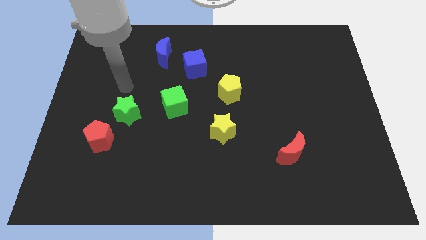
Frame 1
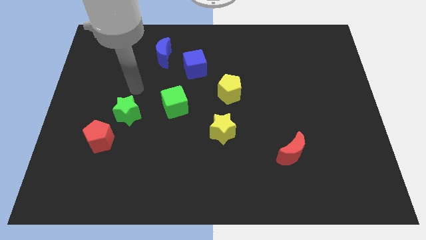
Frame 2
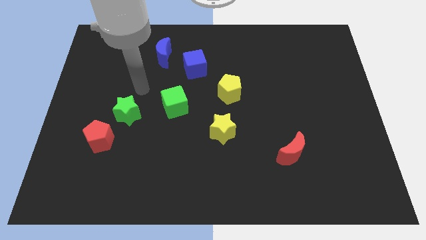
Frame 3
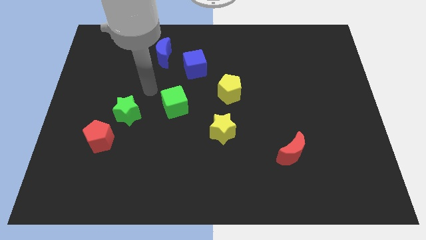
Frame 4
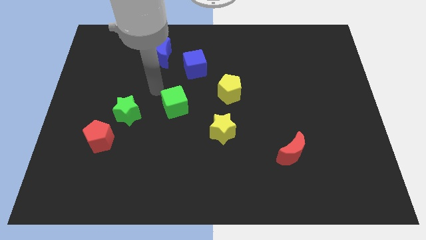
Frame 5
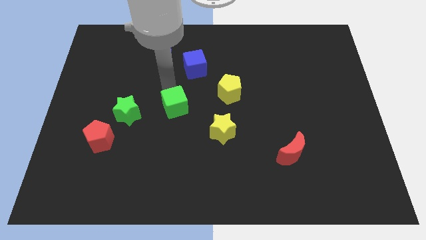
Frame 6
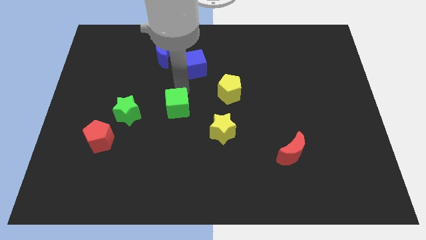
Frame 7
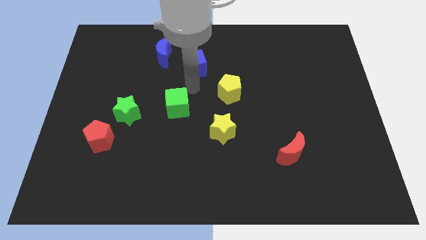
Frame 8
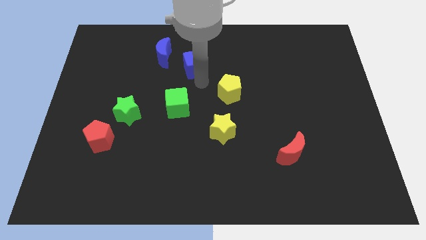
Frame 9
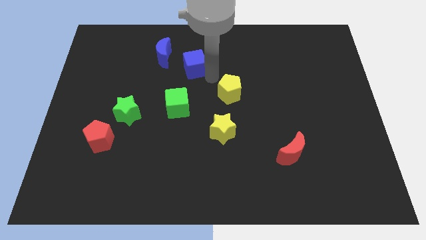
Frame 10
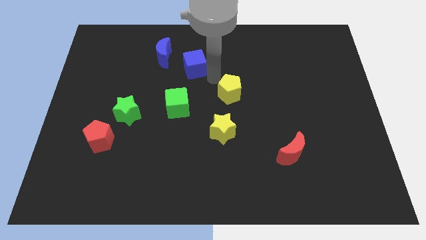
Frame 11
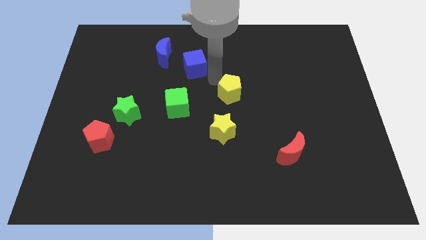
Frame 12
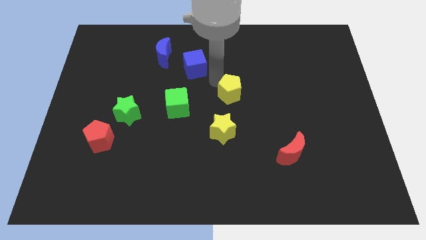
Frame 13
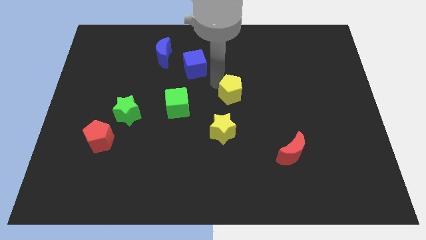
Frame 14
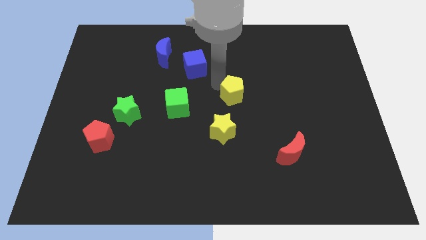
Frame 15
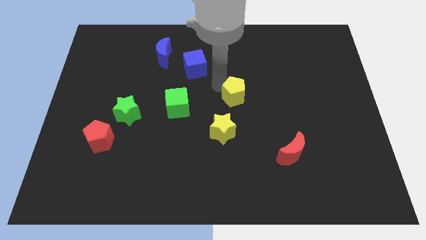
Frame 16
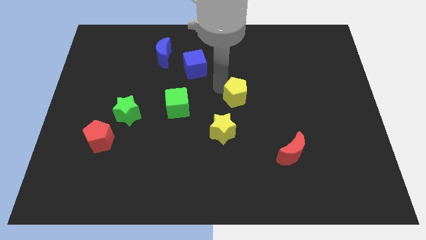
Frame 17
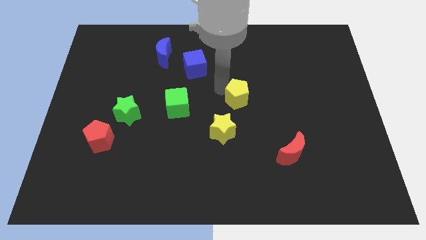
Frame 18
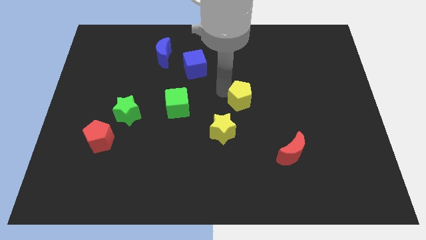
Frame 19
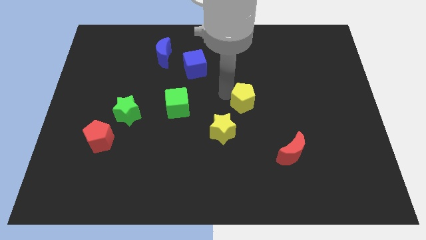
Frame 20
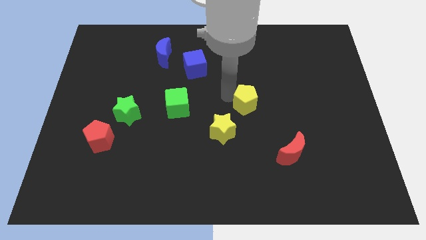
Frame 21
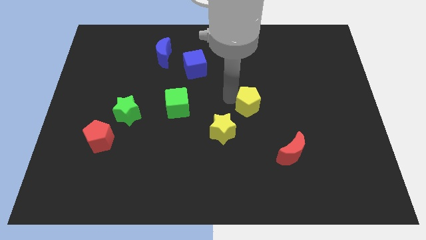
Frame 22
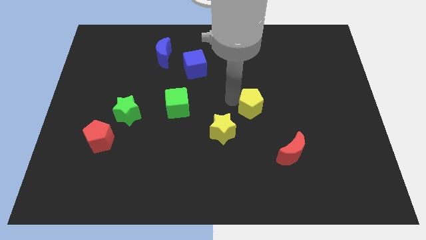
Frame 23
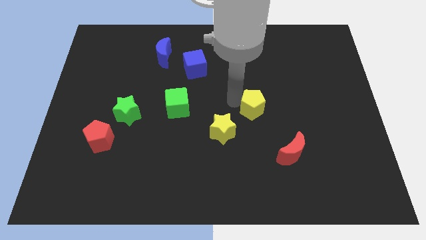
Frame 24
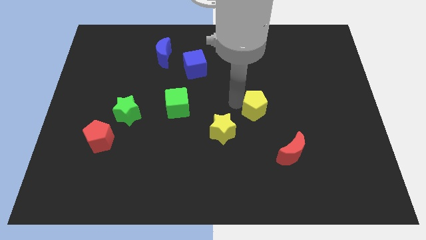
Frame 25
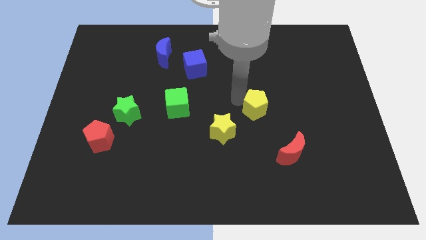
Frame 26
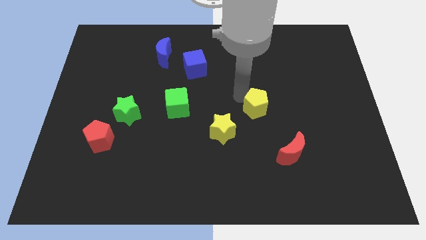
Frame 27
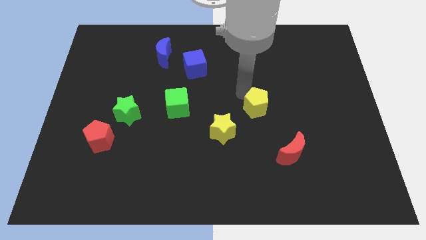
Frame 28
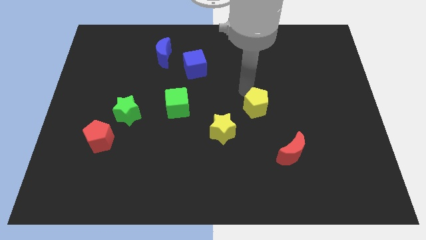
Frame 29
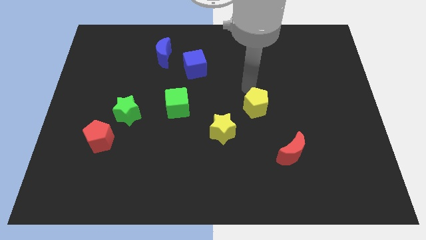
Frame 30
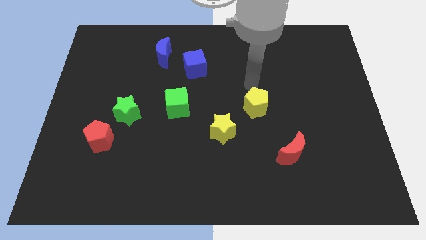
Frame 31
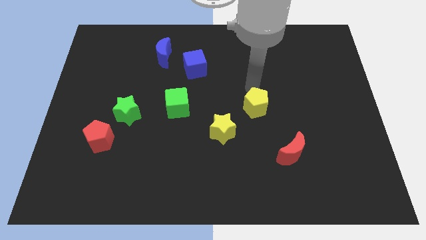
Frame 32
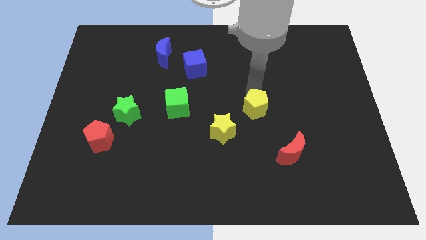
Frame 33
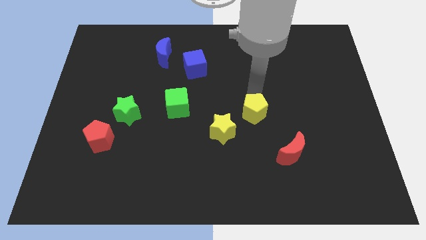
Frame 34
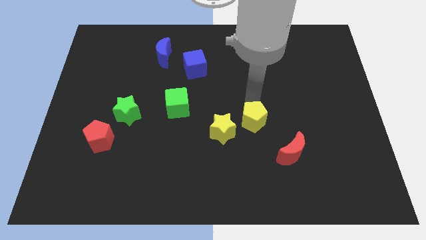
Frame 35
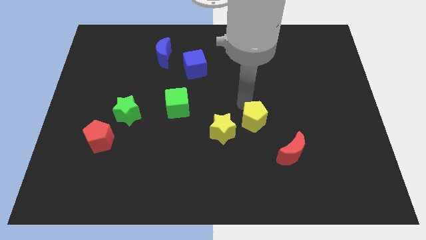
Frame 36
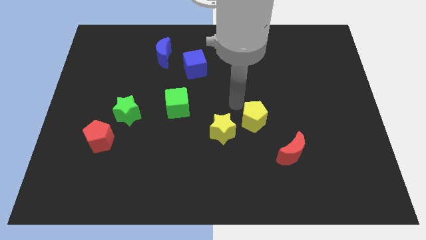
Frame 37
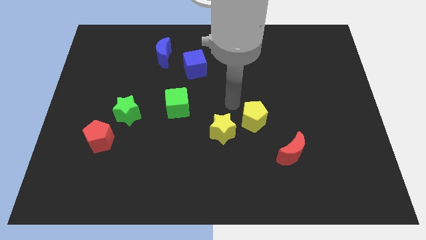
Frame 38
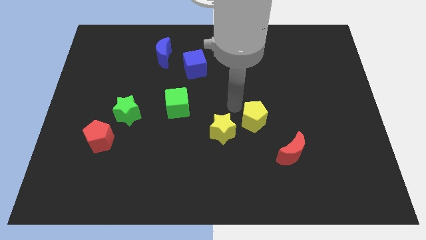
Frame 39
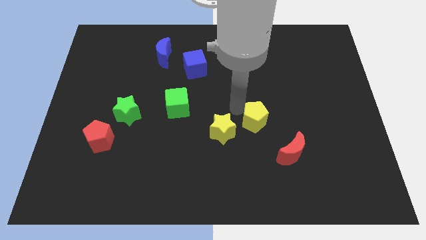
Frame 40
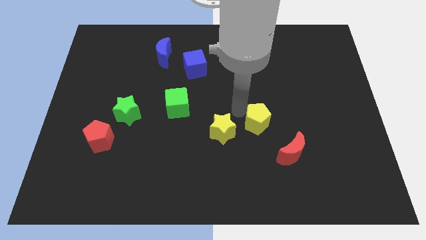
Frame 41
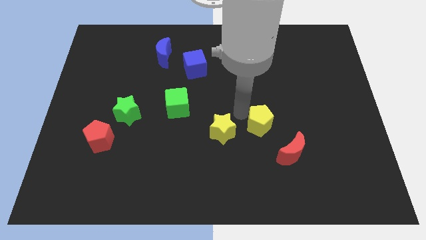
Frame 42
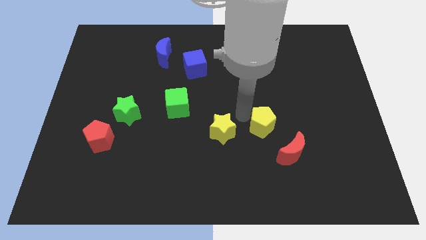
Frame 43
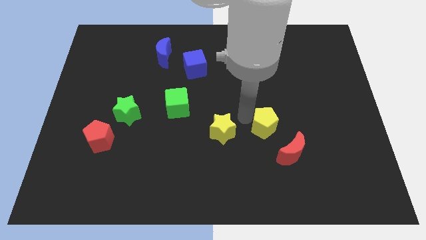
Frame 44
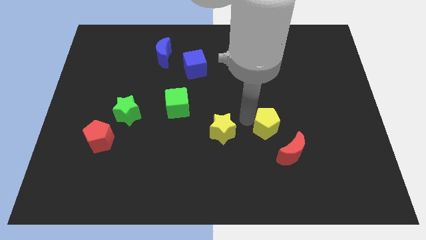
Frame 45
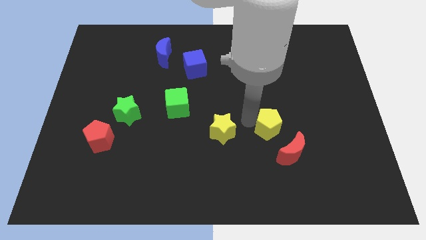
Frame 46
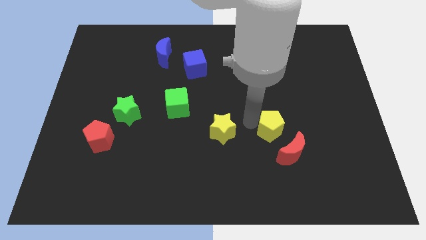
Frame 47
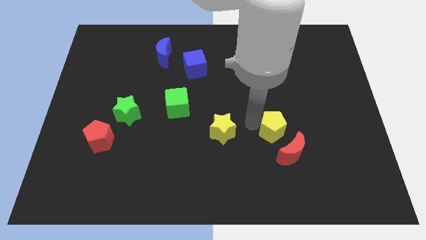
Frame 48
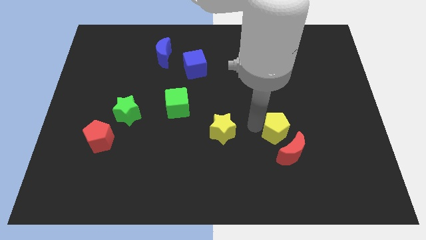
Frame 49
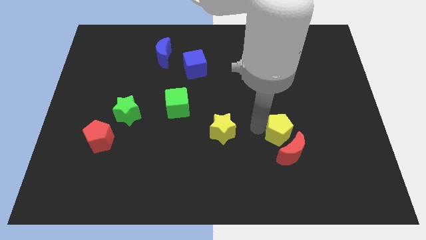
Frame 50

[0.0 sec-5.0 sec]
move the yellow pentagon towards the red moon

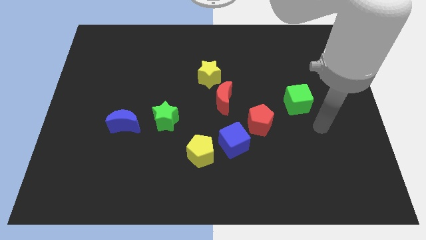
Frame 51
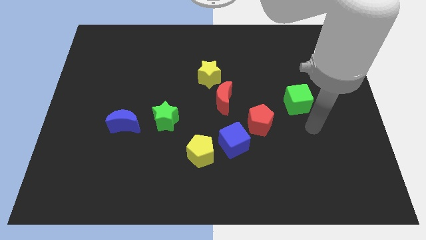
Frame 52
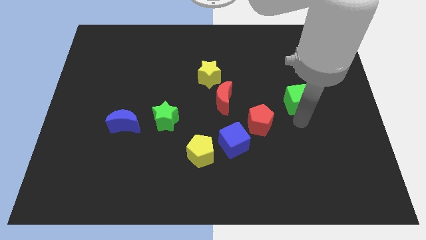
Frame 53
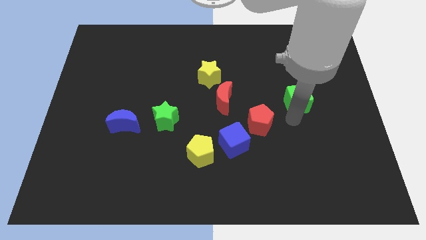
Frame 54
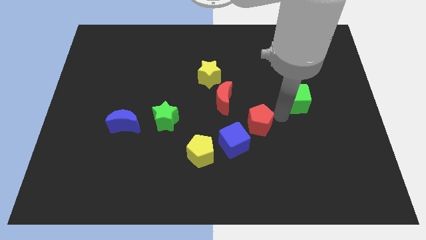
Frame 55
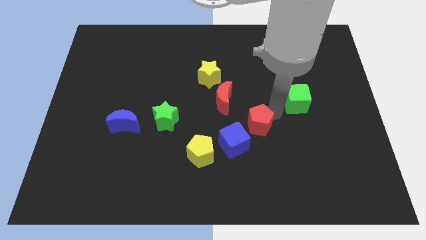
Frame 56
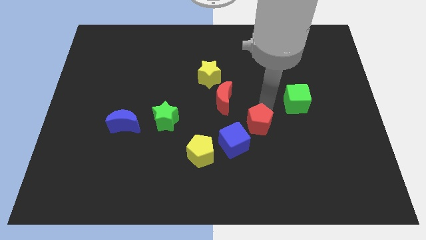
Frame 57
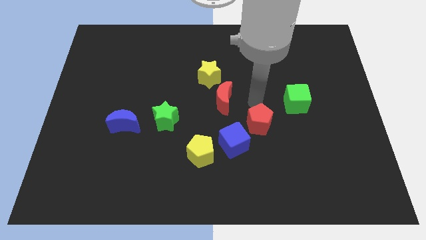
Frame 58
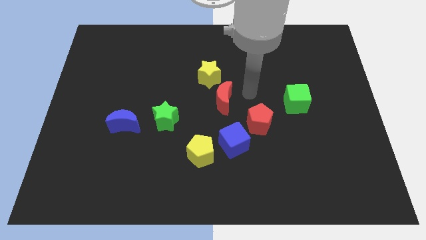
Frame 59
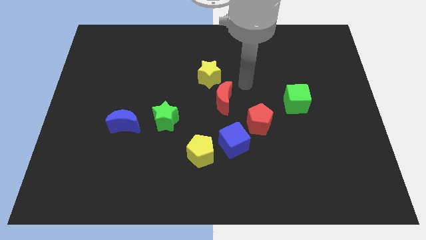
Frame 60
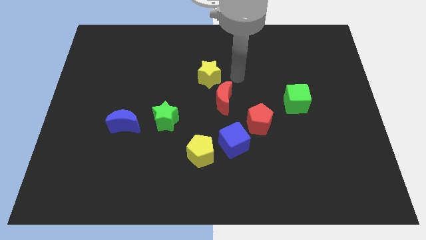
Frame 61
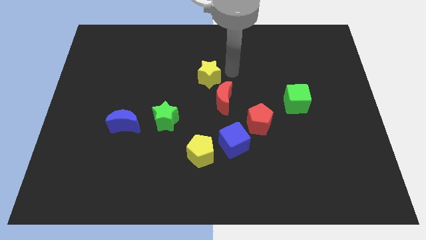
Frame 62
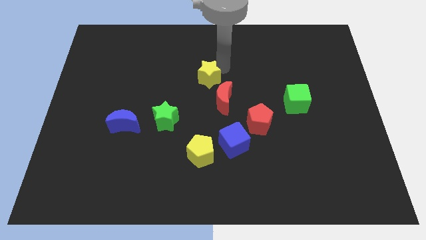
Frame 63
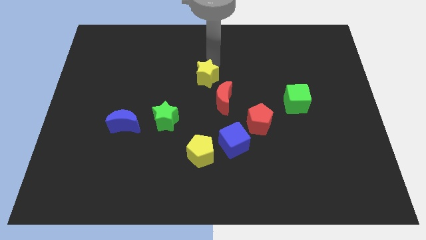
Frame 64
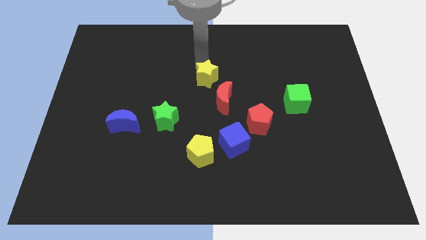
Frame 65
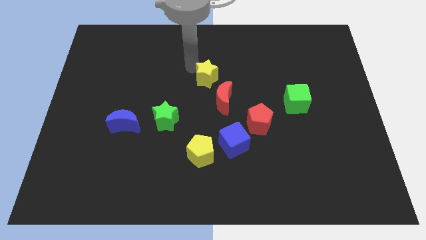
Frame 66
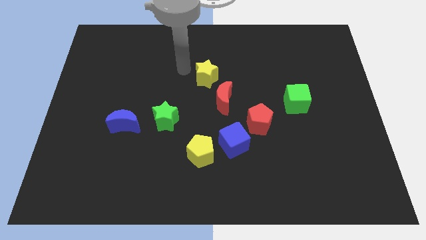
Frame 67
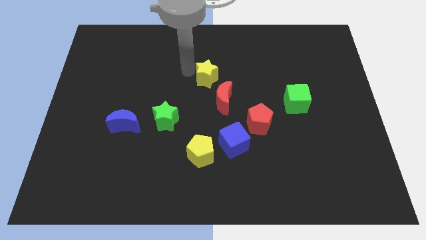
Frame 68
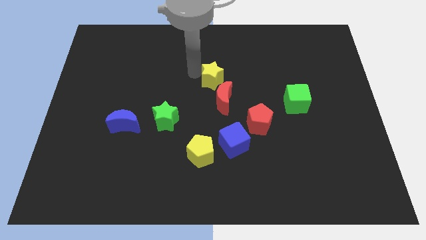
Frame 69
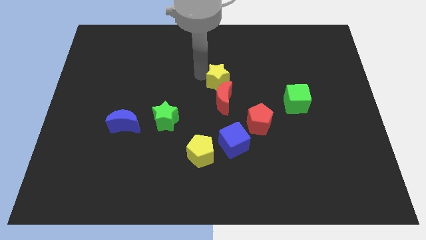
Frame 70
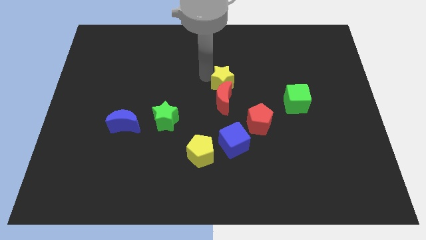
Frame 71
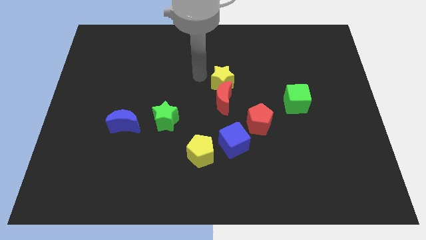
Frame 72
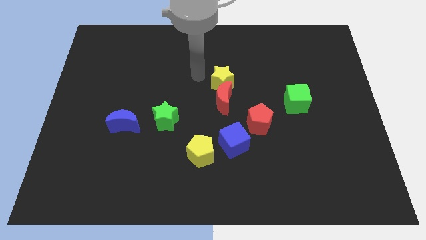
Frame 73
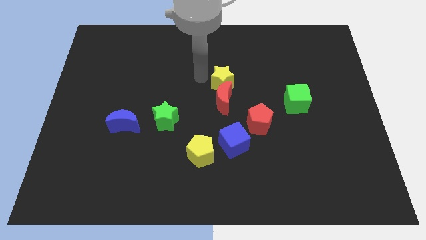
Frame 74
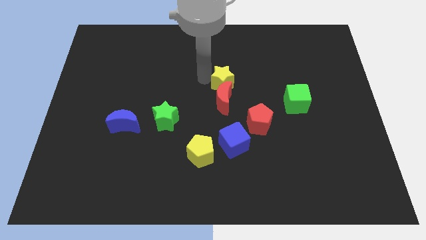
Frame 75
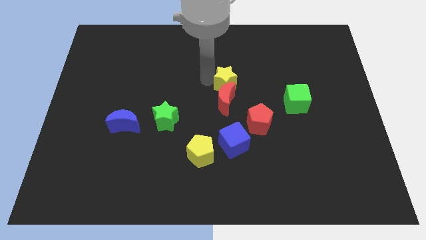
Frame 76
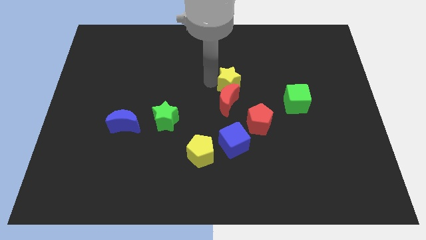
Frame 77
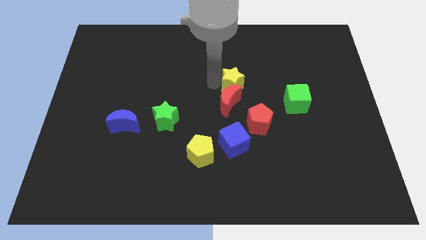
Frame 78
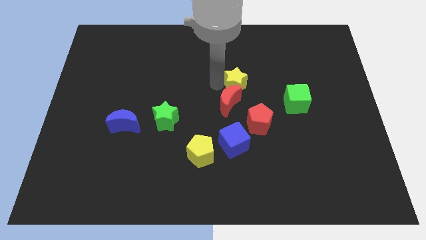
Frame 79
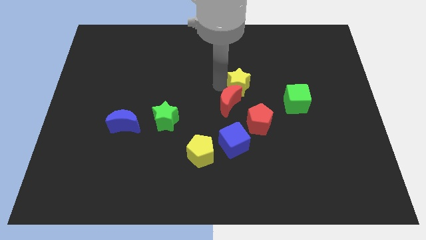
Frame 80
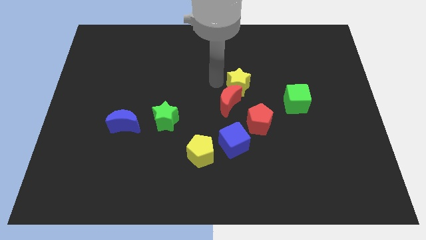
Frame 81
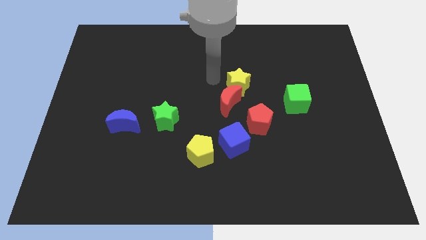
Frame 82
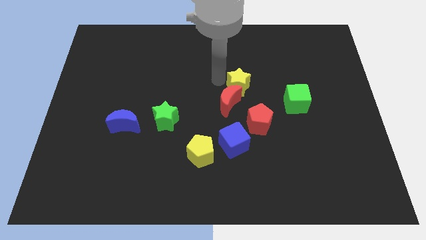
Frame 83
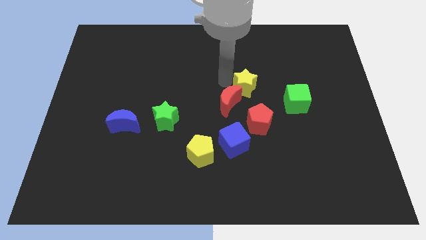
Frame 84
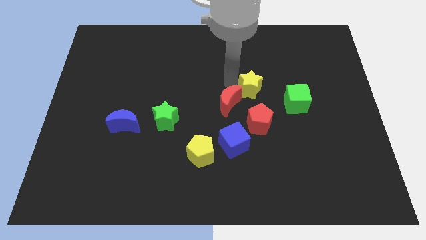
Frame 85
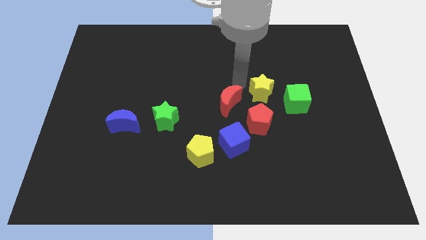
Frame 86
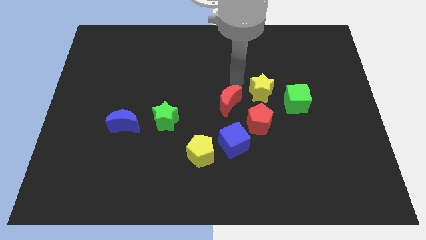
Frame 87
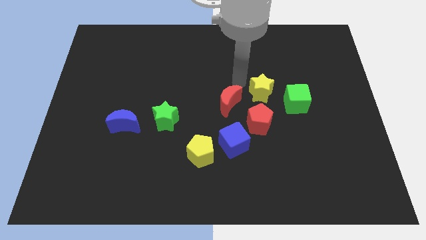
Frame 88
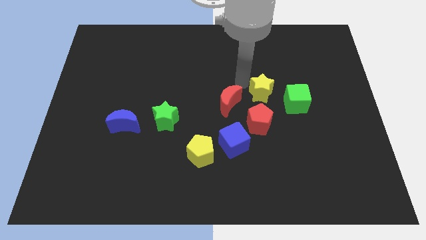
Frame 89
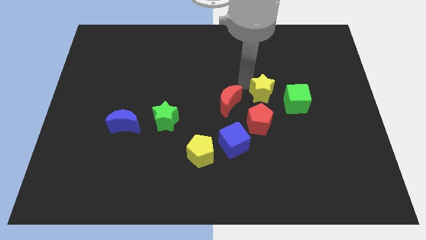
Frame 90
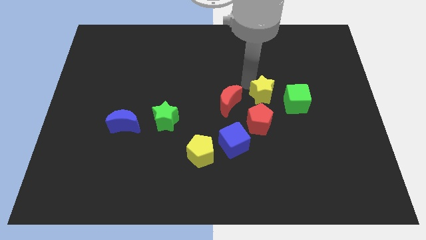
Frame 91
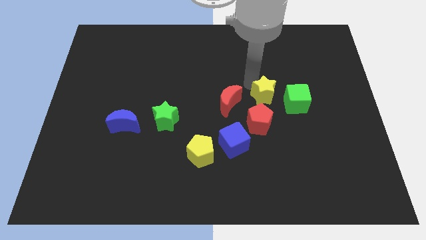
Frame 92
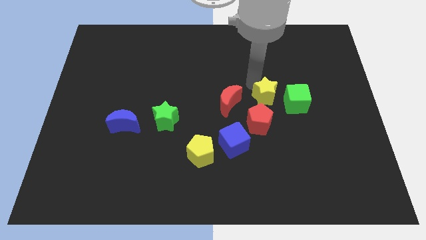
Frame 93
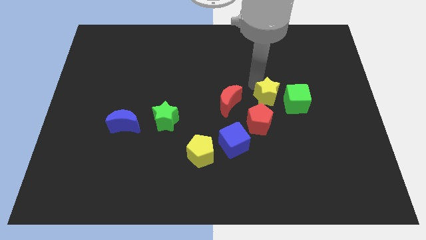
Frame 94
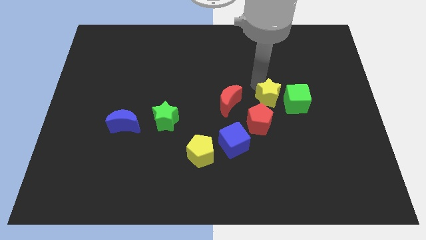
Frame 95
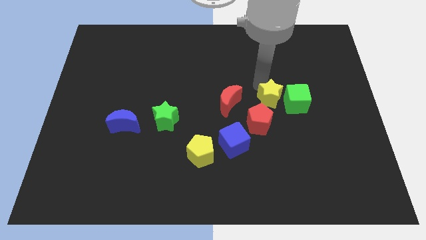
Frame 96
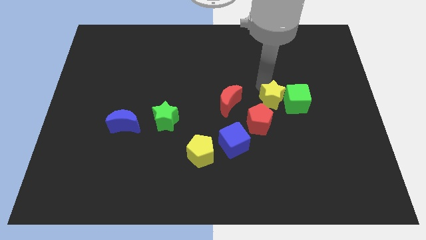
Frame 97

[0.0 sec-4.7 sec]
put the yellow star towards the green cube
